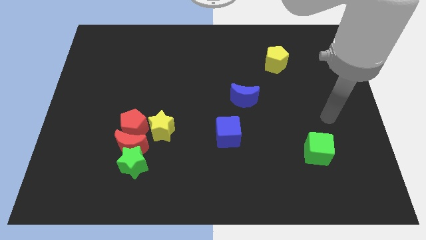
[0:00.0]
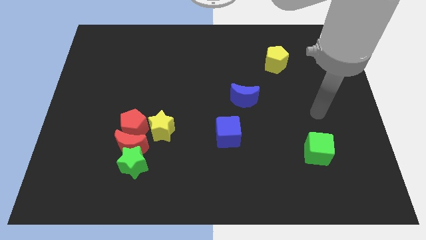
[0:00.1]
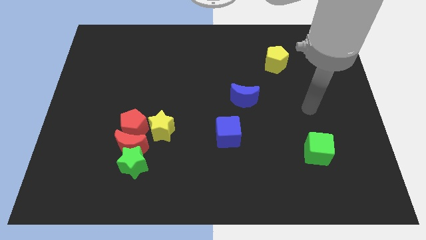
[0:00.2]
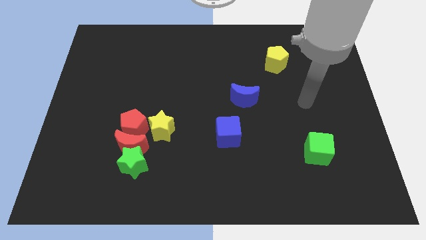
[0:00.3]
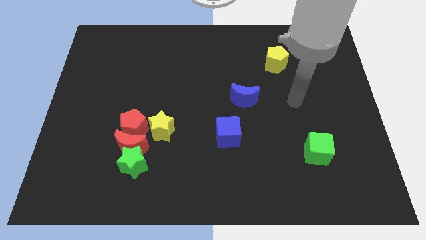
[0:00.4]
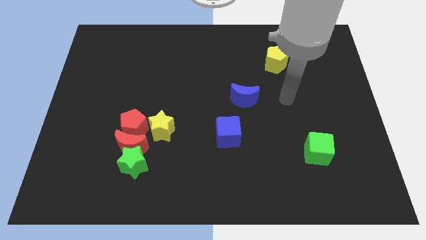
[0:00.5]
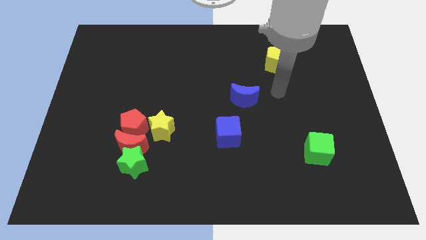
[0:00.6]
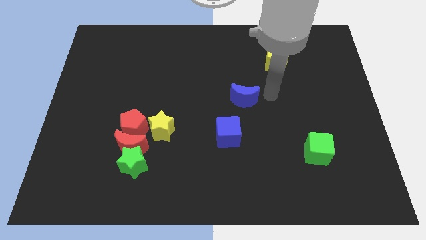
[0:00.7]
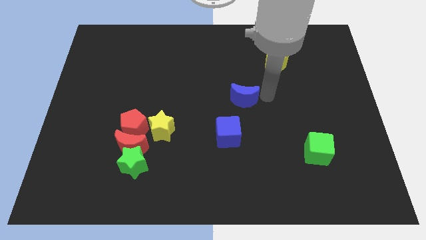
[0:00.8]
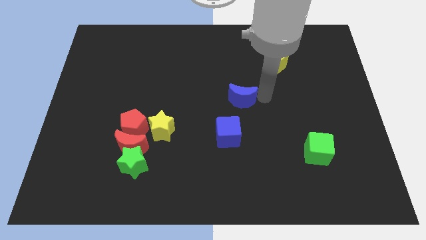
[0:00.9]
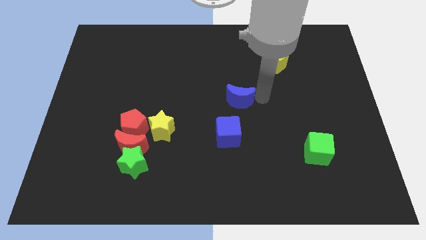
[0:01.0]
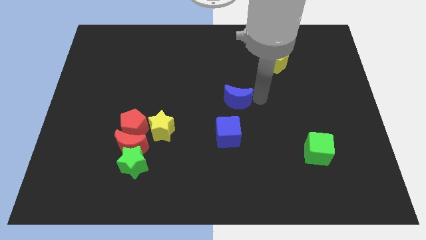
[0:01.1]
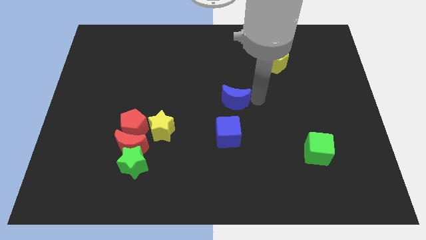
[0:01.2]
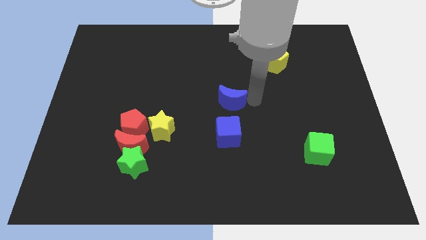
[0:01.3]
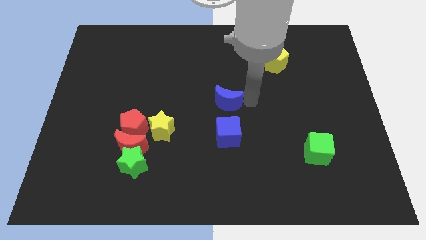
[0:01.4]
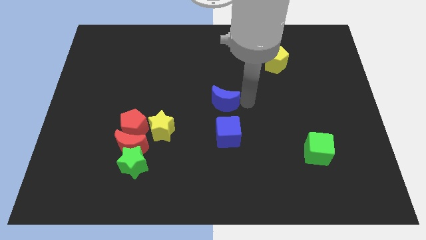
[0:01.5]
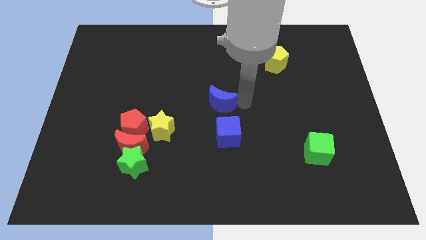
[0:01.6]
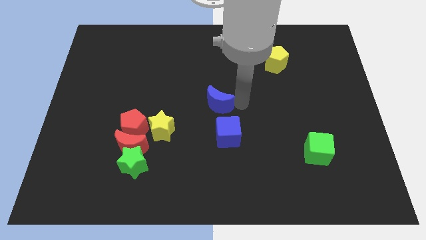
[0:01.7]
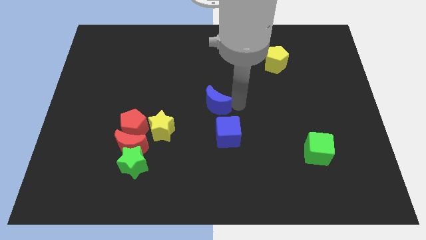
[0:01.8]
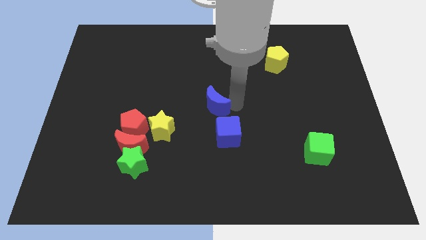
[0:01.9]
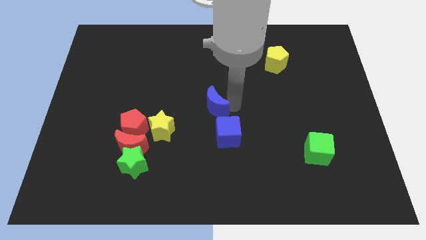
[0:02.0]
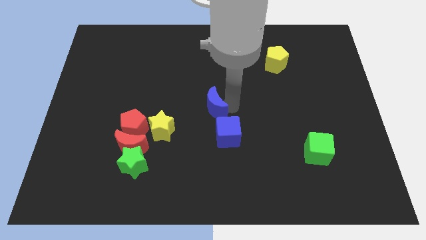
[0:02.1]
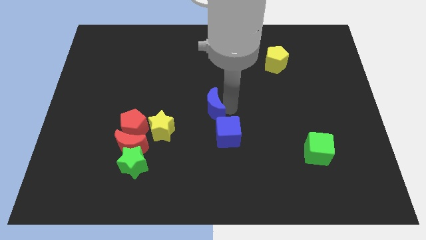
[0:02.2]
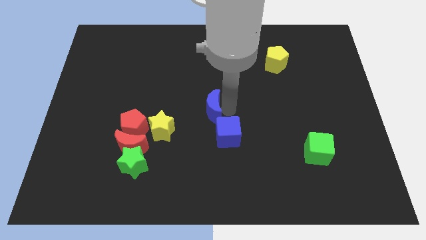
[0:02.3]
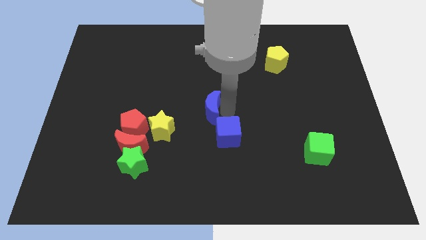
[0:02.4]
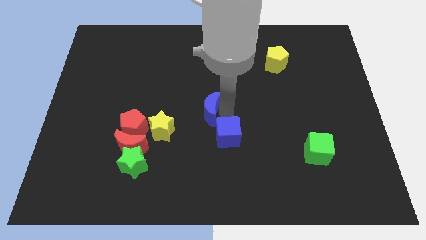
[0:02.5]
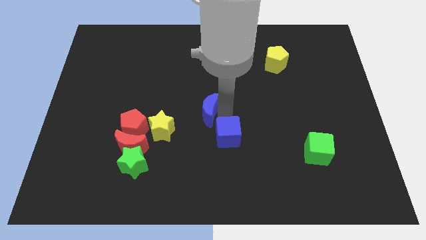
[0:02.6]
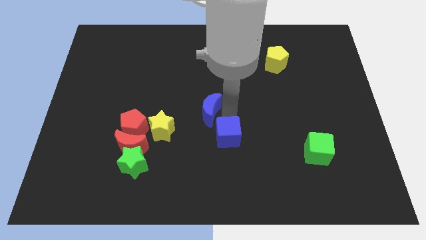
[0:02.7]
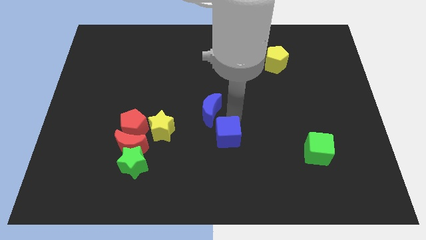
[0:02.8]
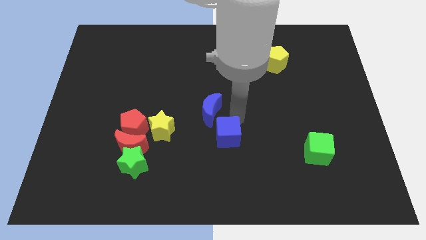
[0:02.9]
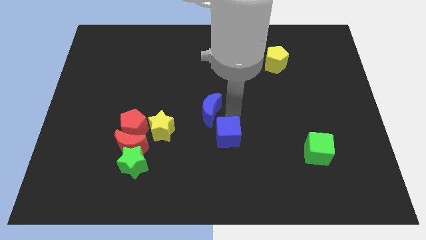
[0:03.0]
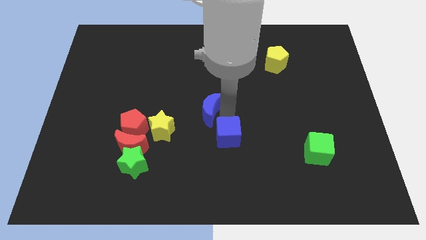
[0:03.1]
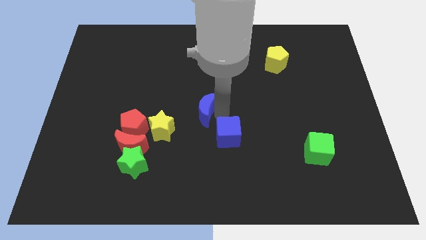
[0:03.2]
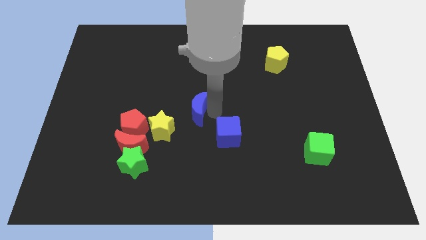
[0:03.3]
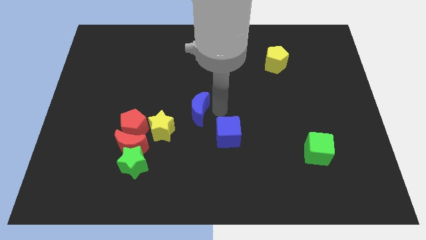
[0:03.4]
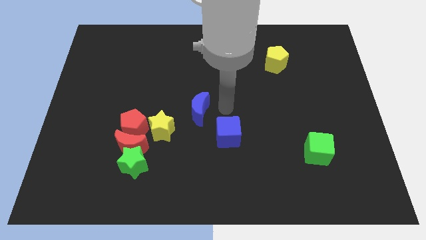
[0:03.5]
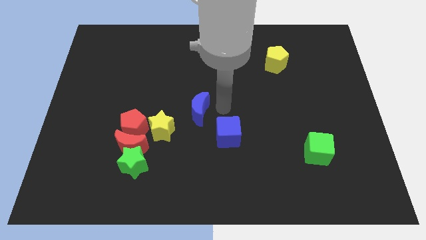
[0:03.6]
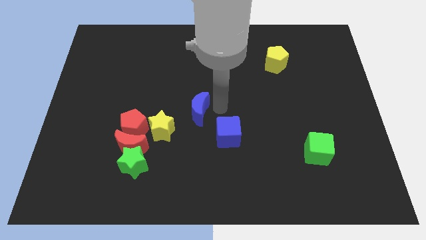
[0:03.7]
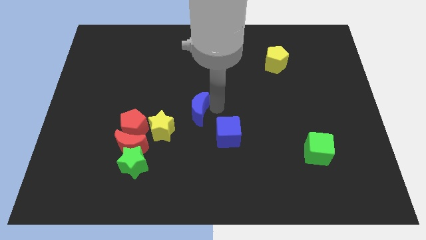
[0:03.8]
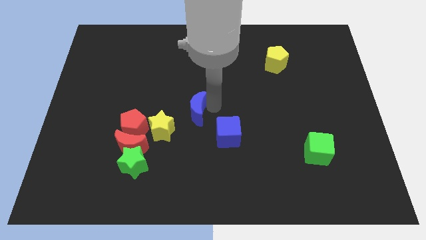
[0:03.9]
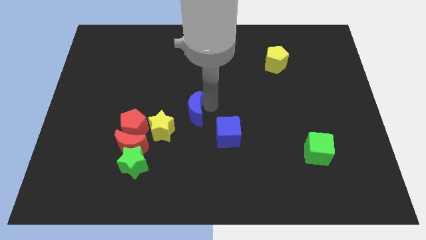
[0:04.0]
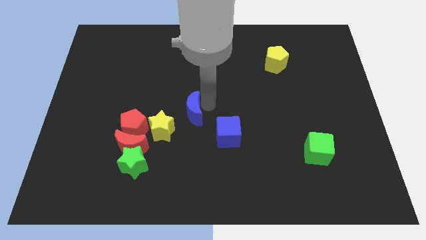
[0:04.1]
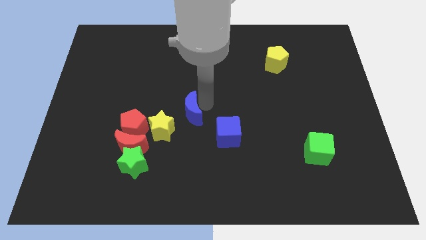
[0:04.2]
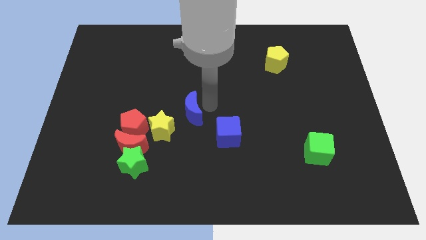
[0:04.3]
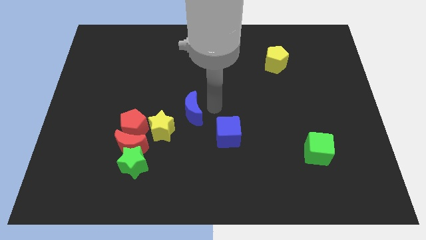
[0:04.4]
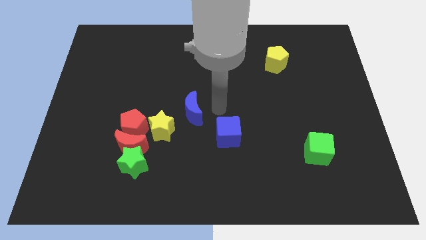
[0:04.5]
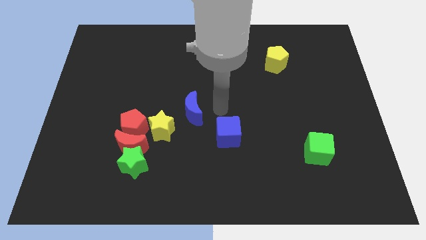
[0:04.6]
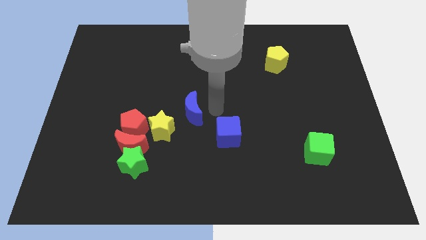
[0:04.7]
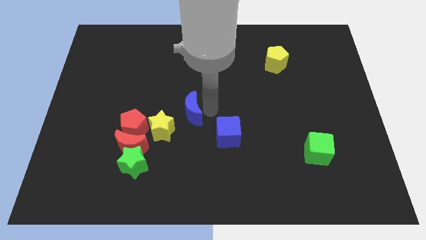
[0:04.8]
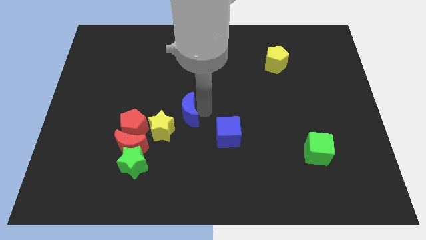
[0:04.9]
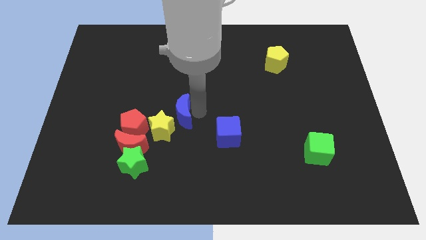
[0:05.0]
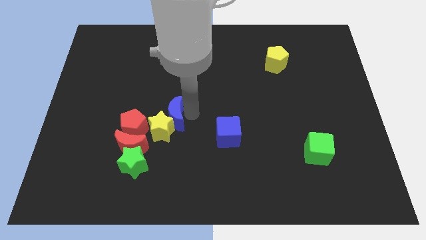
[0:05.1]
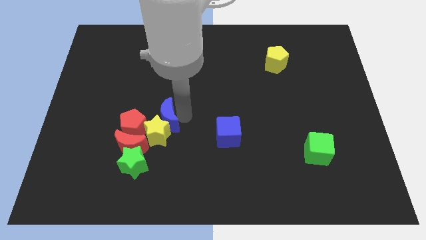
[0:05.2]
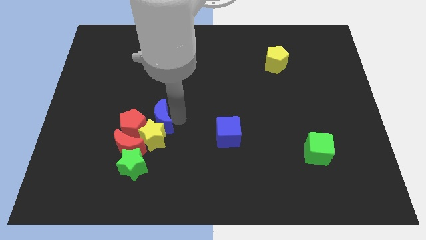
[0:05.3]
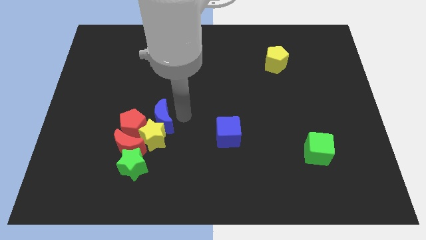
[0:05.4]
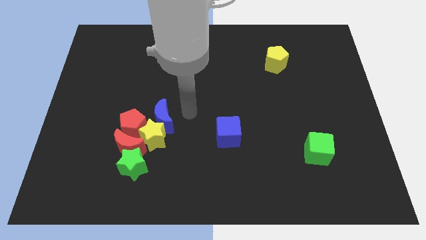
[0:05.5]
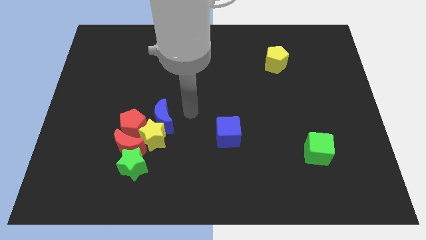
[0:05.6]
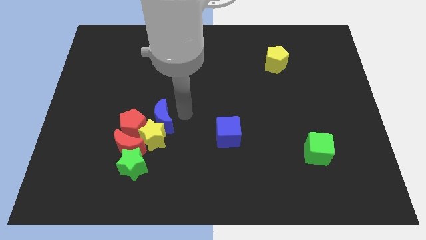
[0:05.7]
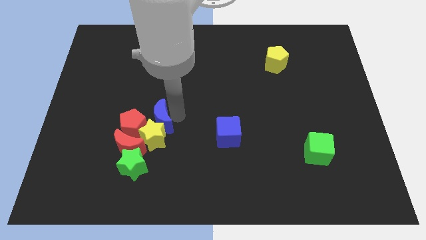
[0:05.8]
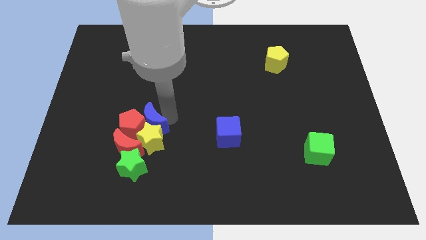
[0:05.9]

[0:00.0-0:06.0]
push the blue moon to the red pentagon

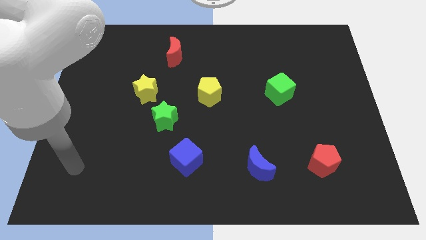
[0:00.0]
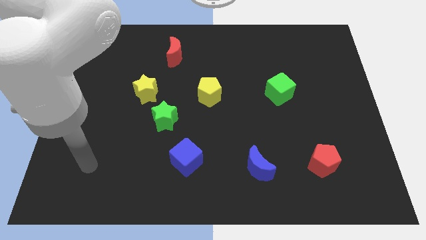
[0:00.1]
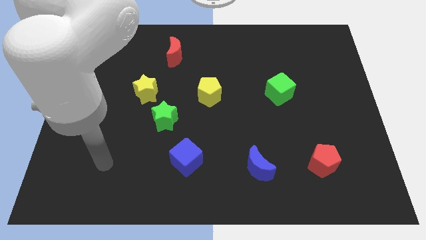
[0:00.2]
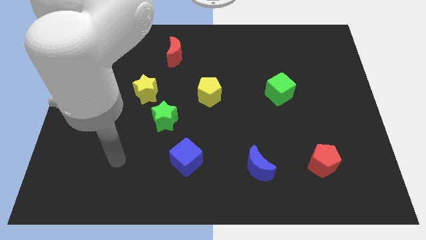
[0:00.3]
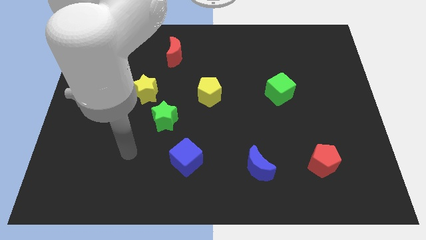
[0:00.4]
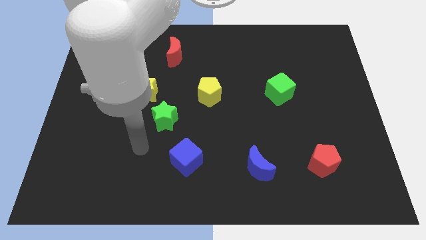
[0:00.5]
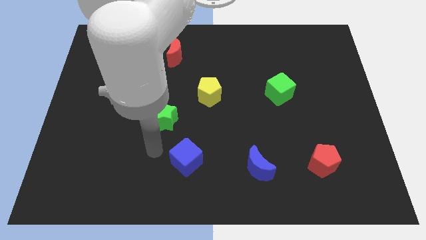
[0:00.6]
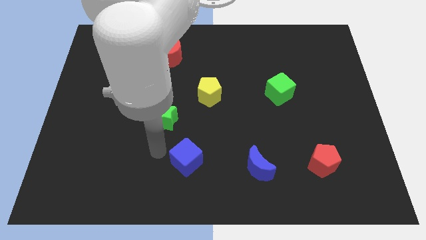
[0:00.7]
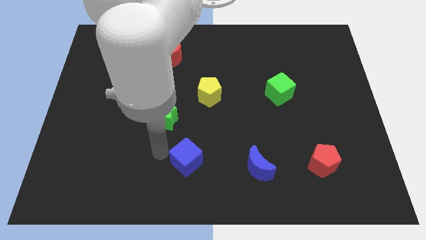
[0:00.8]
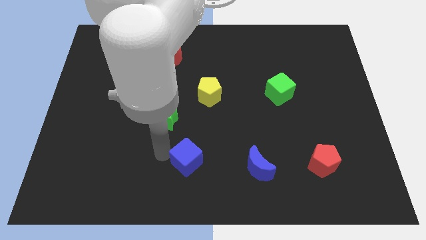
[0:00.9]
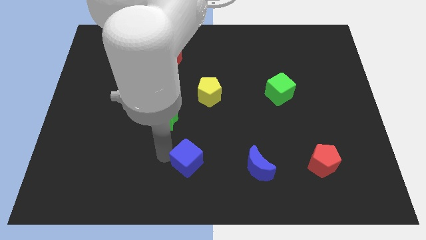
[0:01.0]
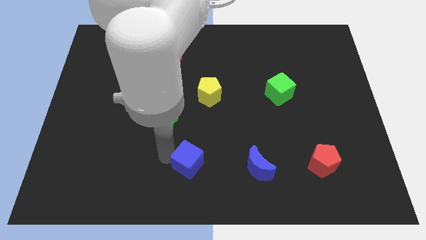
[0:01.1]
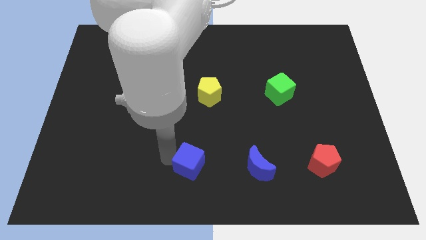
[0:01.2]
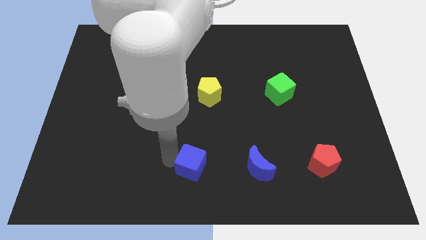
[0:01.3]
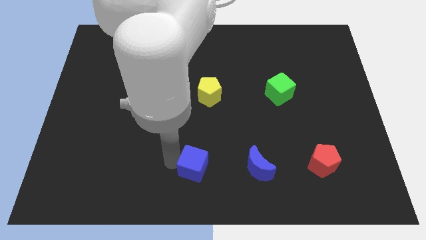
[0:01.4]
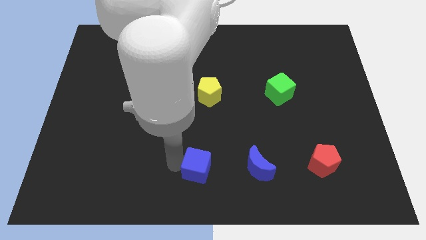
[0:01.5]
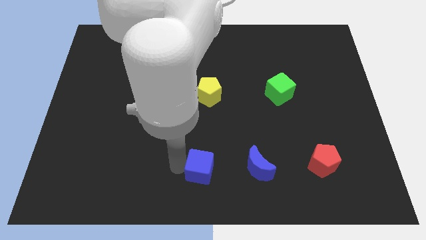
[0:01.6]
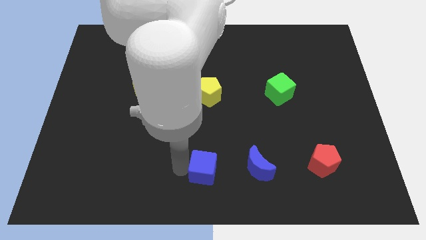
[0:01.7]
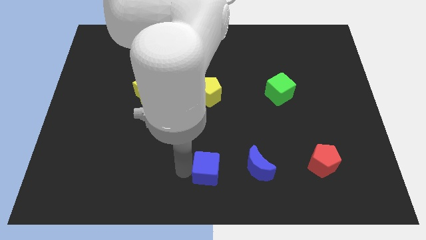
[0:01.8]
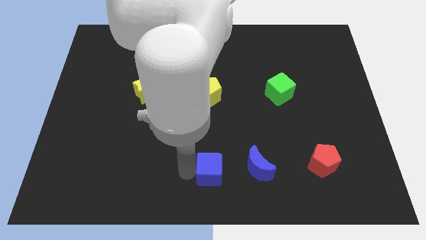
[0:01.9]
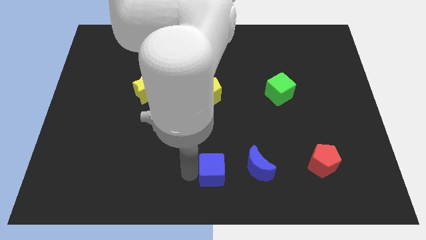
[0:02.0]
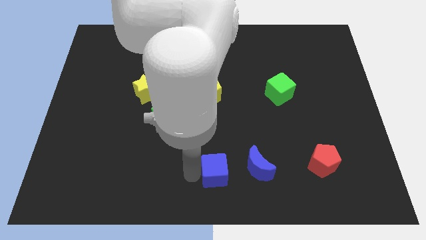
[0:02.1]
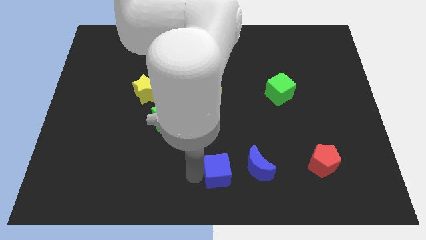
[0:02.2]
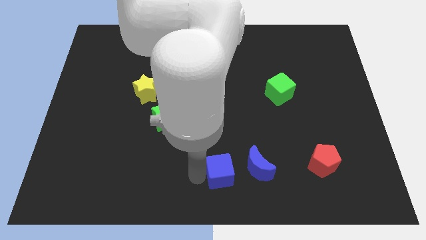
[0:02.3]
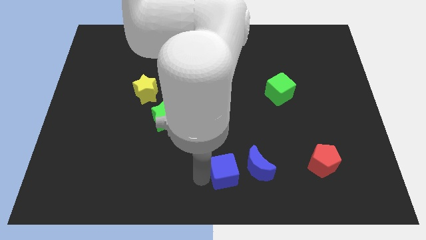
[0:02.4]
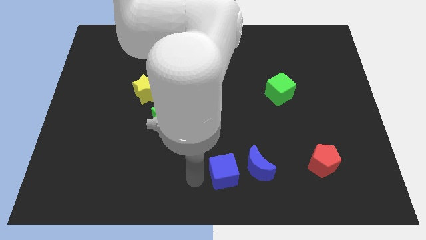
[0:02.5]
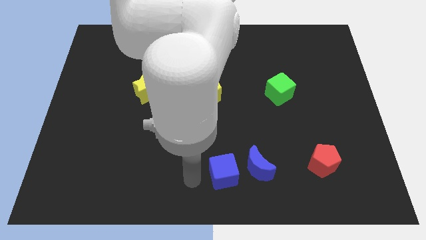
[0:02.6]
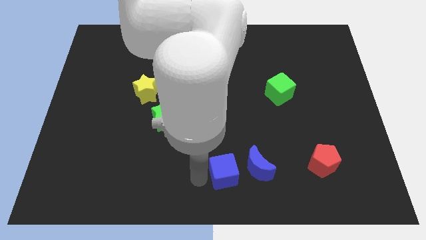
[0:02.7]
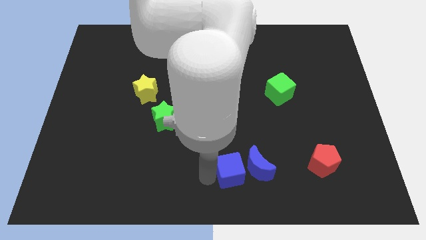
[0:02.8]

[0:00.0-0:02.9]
put the blue cube to the blue moon
